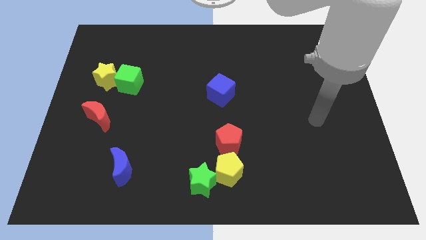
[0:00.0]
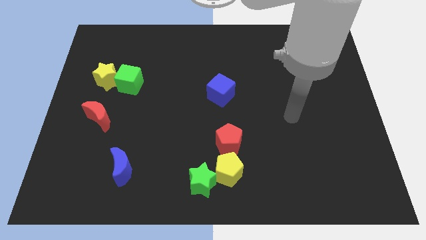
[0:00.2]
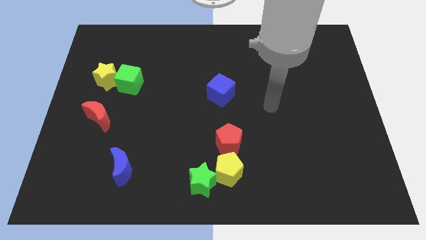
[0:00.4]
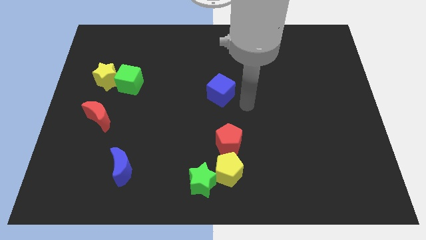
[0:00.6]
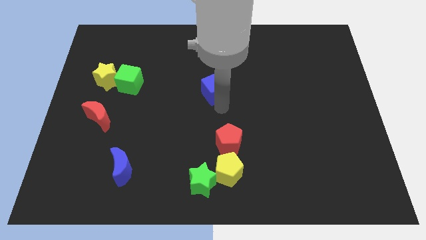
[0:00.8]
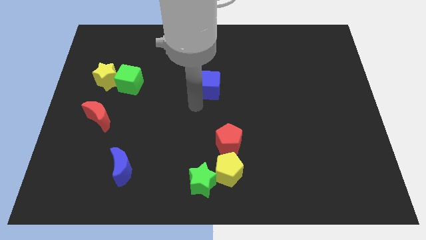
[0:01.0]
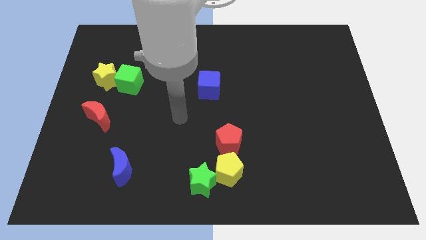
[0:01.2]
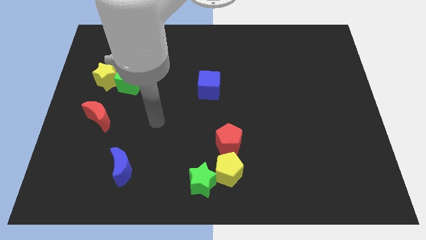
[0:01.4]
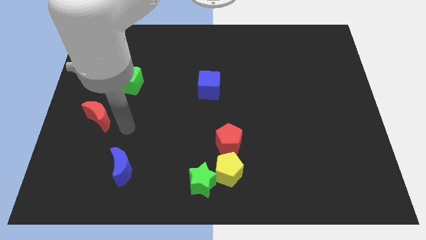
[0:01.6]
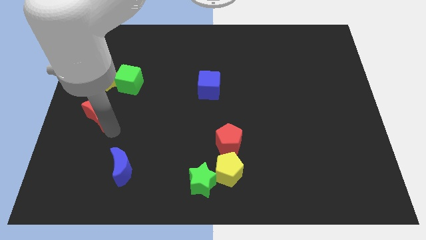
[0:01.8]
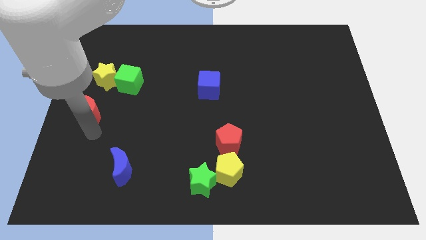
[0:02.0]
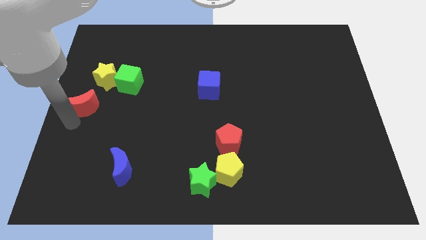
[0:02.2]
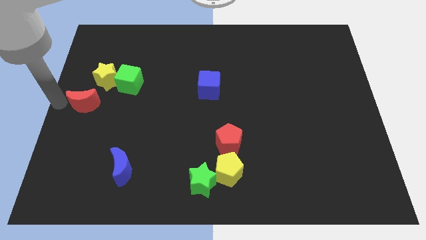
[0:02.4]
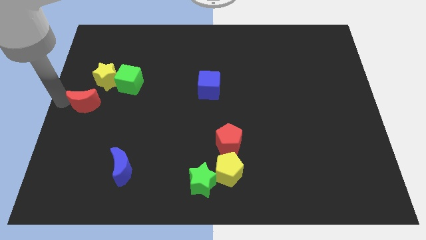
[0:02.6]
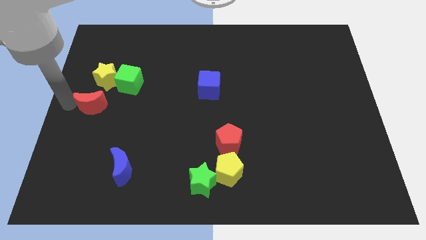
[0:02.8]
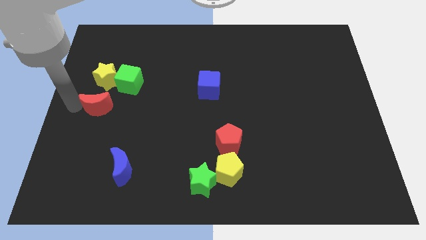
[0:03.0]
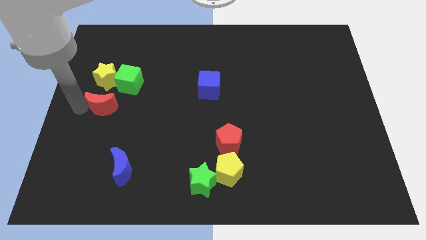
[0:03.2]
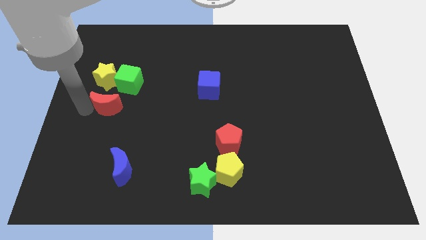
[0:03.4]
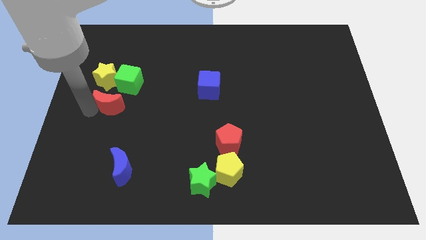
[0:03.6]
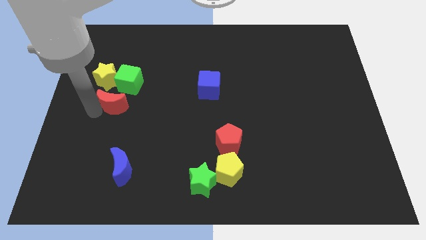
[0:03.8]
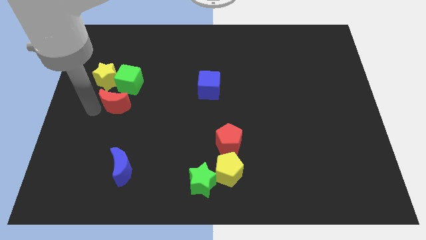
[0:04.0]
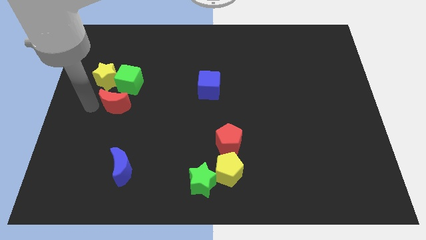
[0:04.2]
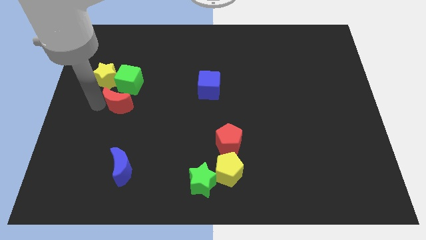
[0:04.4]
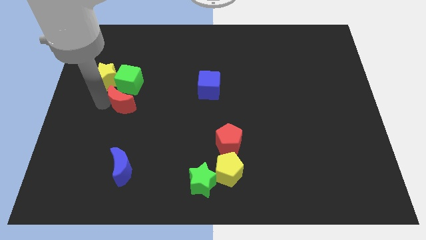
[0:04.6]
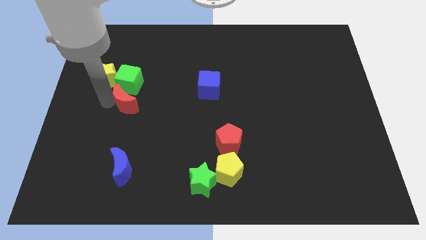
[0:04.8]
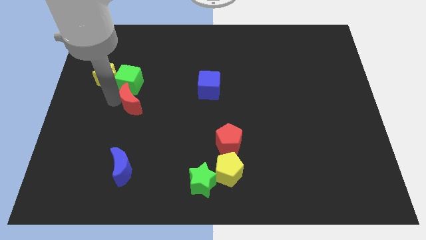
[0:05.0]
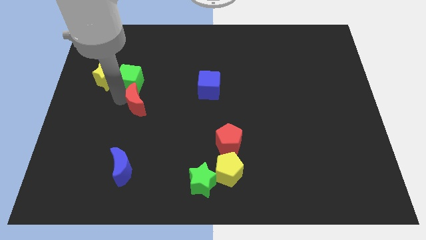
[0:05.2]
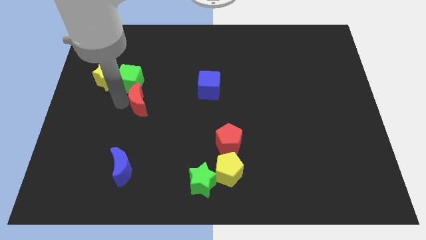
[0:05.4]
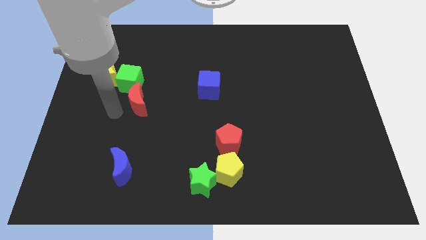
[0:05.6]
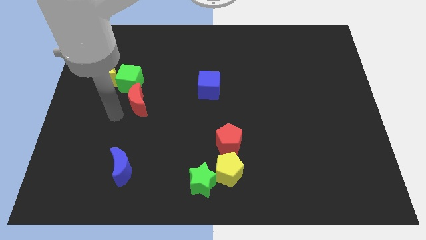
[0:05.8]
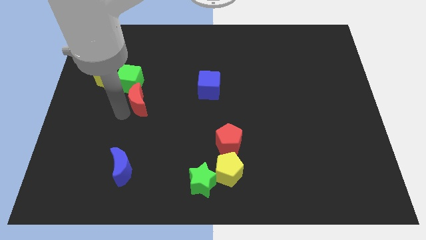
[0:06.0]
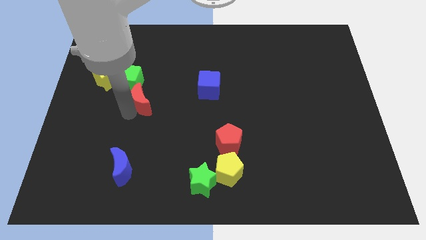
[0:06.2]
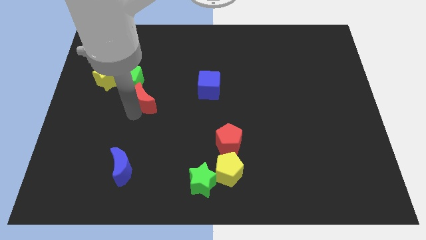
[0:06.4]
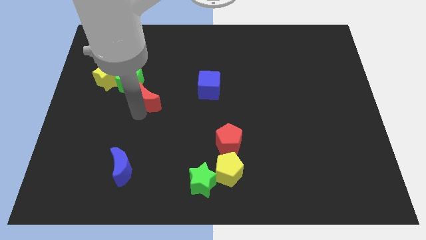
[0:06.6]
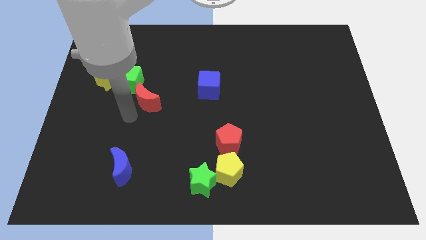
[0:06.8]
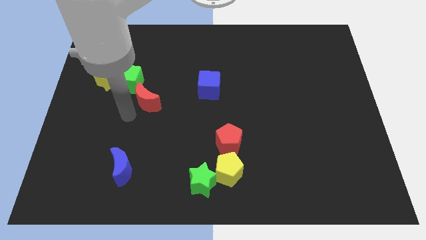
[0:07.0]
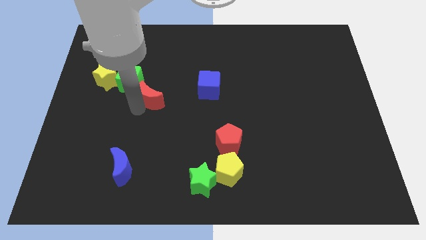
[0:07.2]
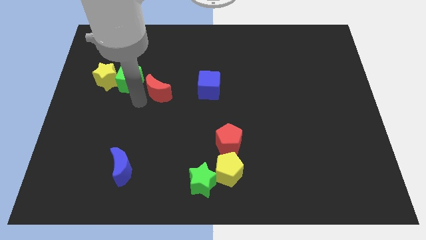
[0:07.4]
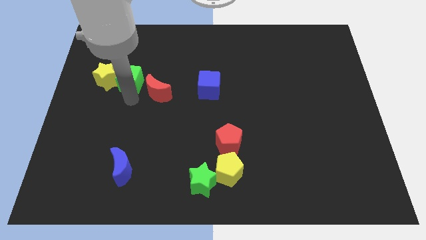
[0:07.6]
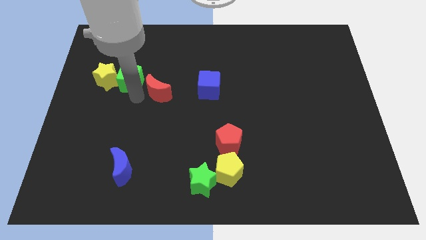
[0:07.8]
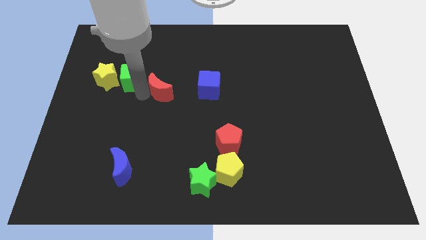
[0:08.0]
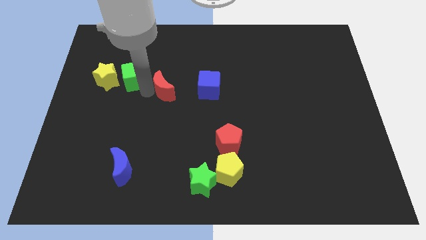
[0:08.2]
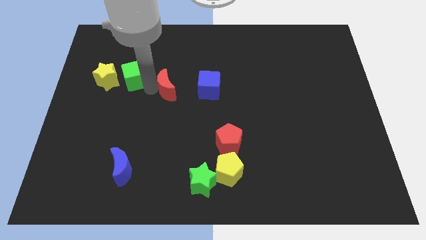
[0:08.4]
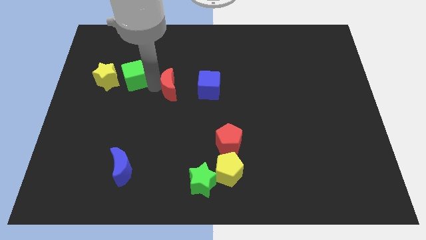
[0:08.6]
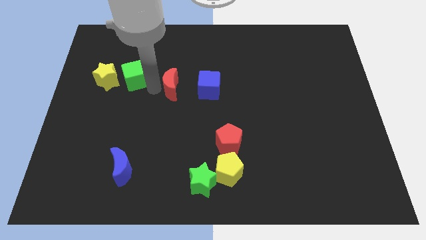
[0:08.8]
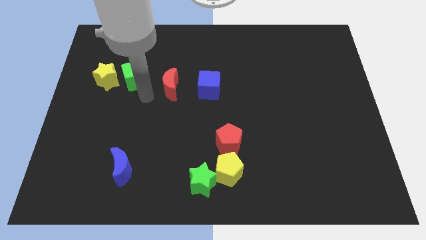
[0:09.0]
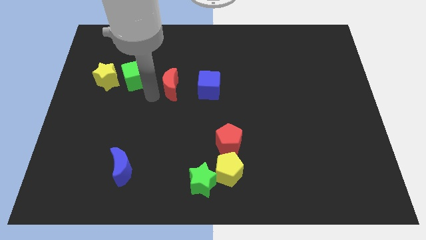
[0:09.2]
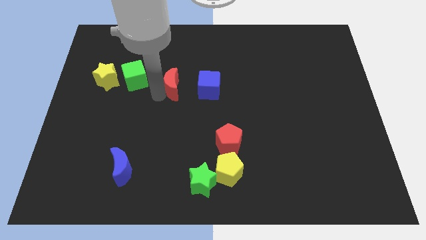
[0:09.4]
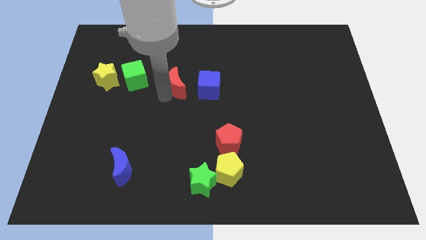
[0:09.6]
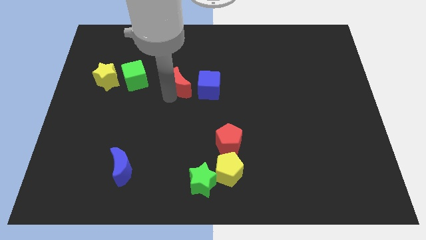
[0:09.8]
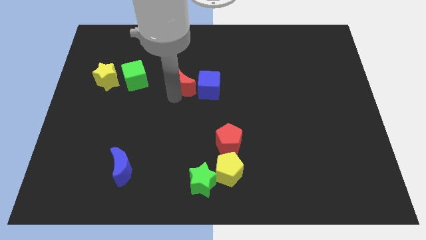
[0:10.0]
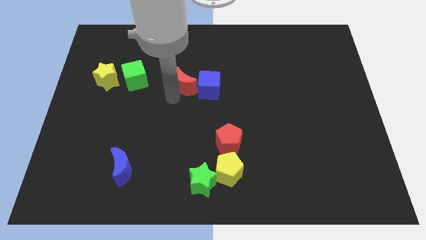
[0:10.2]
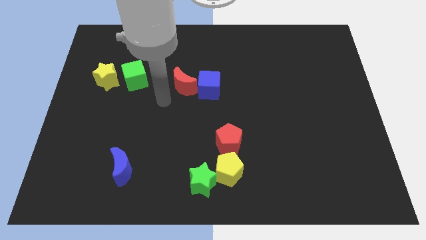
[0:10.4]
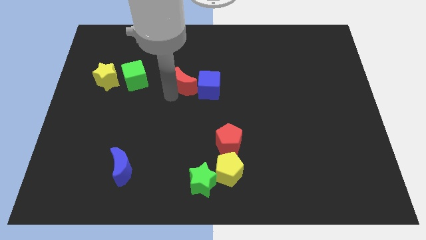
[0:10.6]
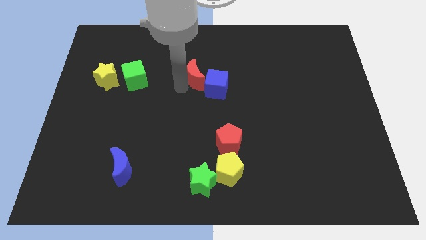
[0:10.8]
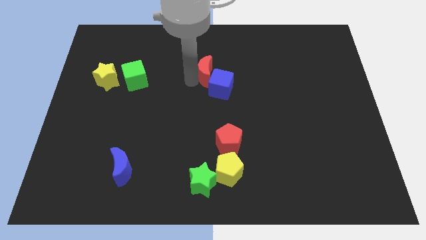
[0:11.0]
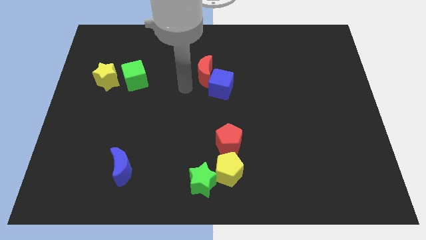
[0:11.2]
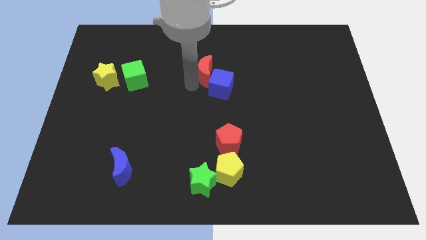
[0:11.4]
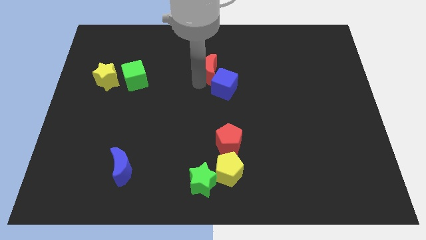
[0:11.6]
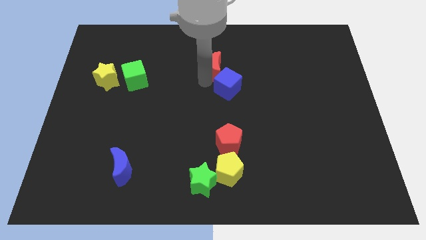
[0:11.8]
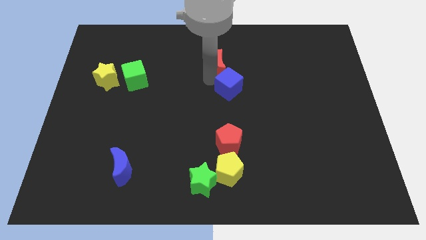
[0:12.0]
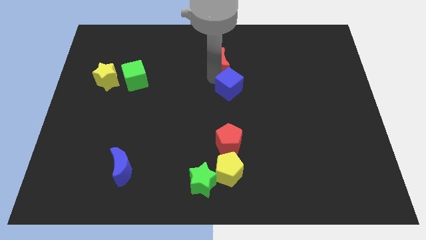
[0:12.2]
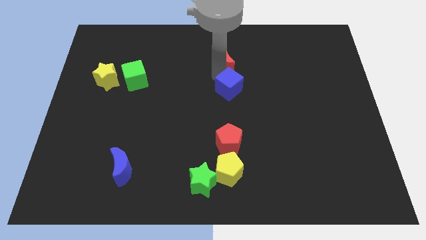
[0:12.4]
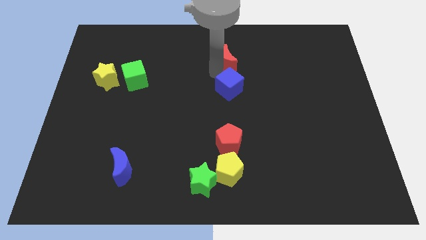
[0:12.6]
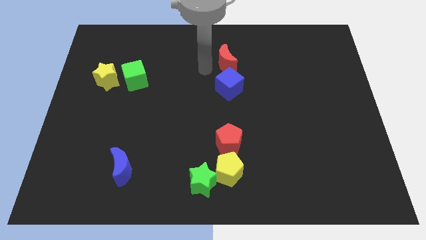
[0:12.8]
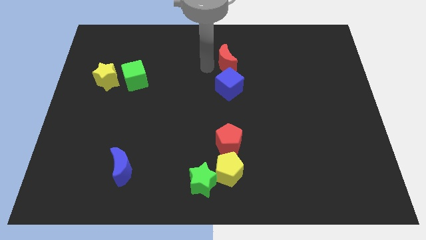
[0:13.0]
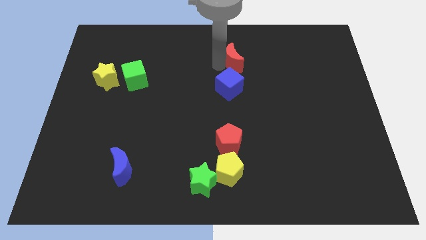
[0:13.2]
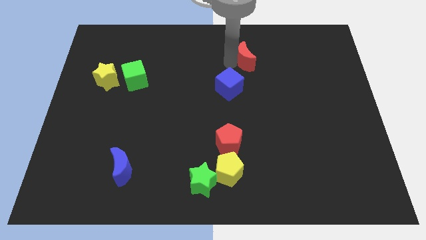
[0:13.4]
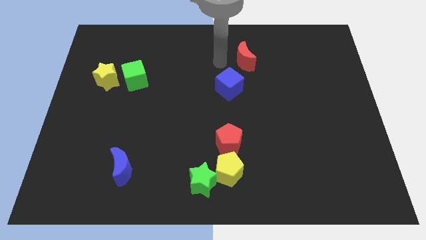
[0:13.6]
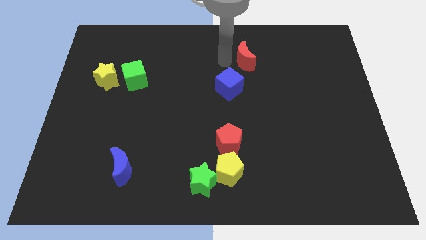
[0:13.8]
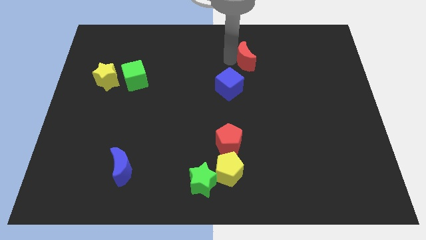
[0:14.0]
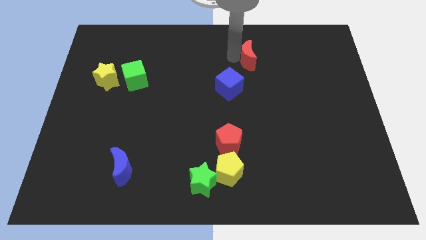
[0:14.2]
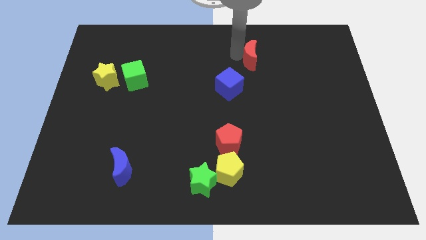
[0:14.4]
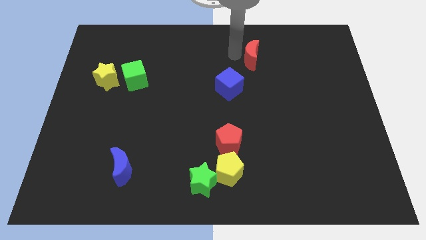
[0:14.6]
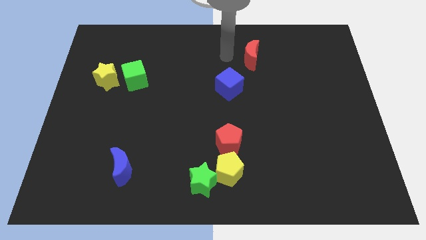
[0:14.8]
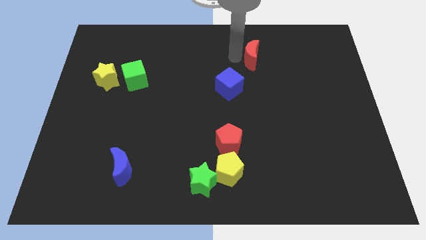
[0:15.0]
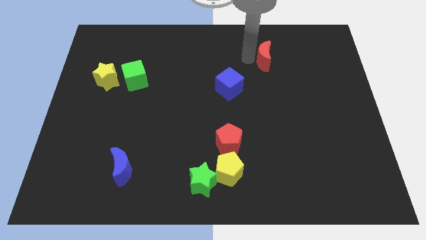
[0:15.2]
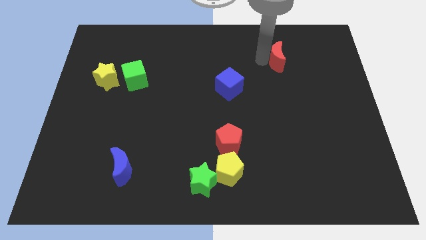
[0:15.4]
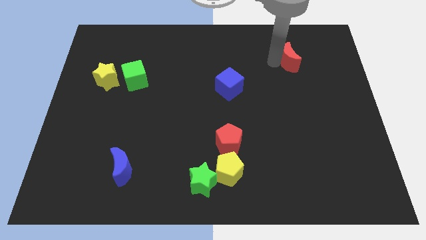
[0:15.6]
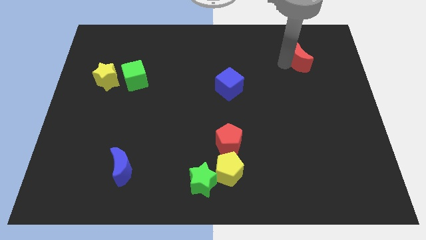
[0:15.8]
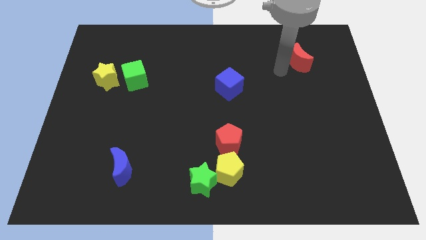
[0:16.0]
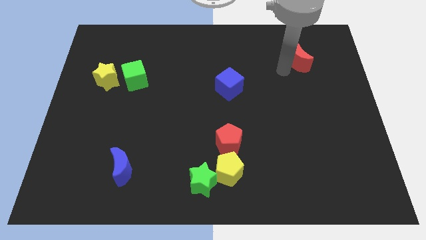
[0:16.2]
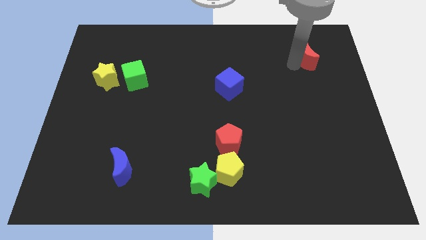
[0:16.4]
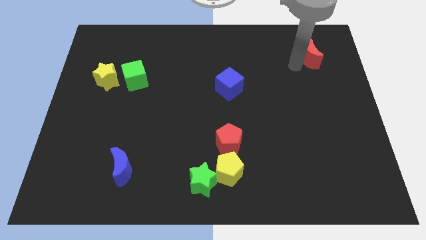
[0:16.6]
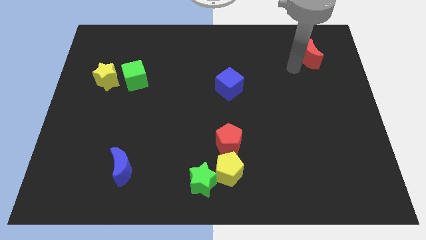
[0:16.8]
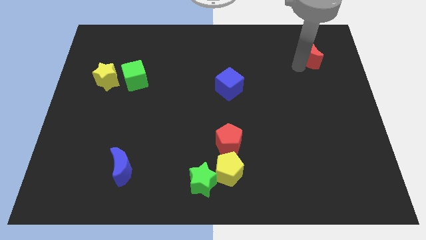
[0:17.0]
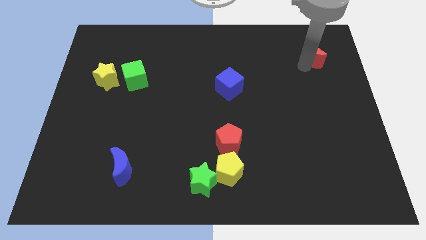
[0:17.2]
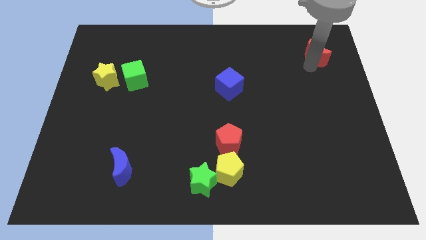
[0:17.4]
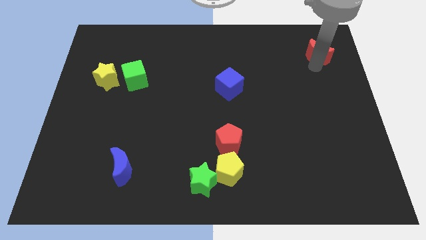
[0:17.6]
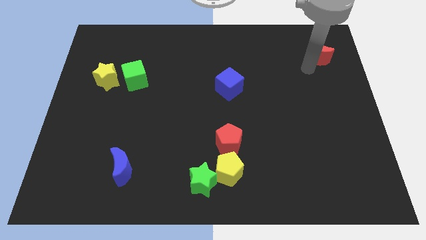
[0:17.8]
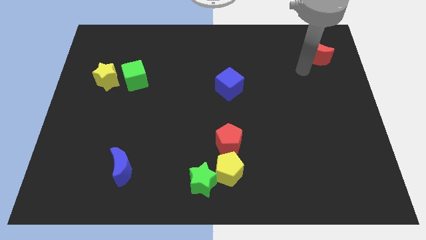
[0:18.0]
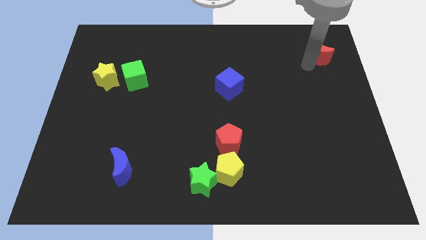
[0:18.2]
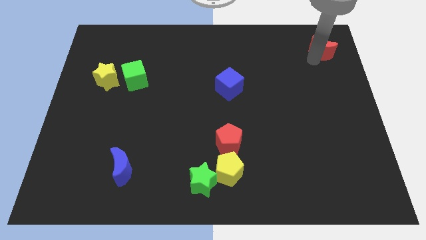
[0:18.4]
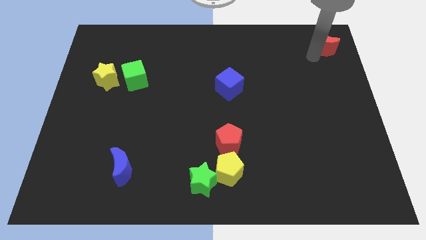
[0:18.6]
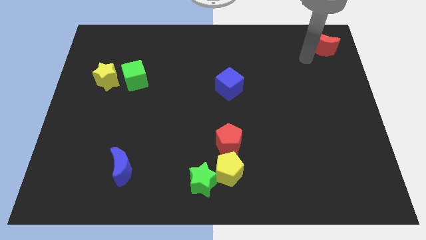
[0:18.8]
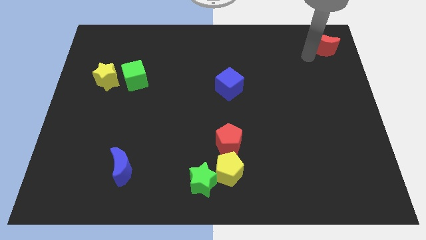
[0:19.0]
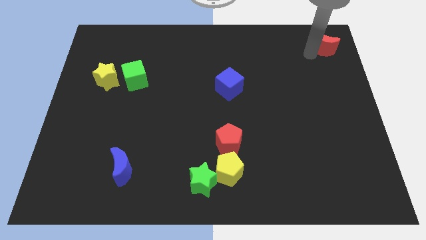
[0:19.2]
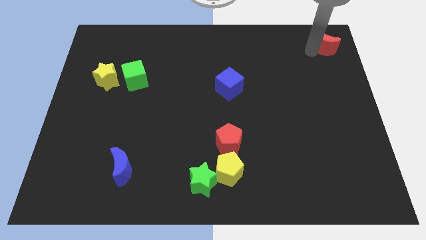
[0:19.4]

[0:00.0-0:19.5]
put the red moon to the top right
